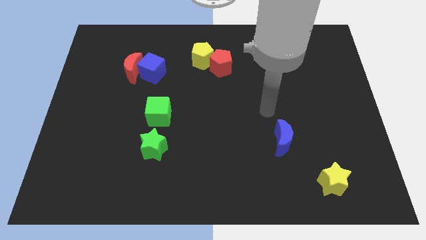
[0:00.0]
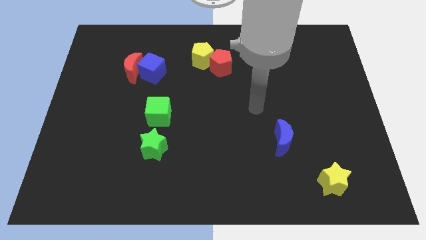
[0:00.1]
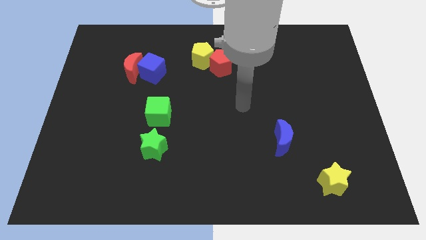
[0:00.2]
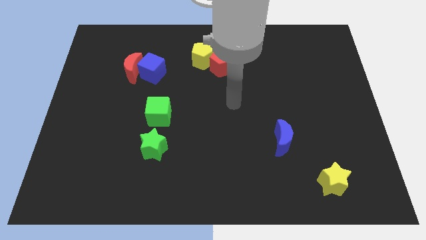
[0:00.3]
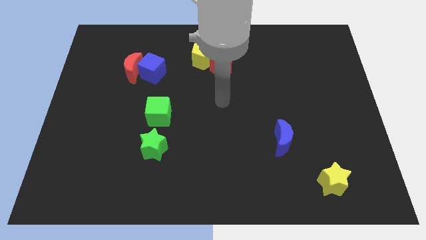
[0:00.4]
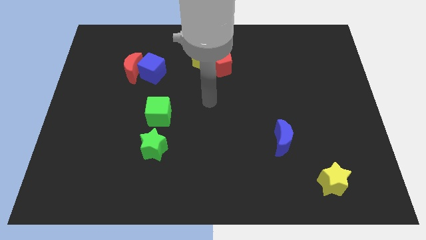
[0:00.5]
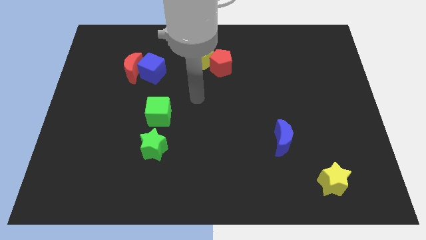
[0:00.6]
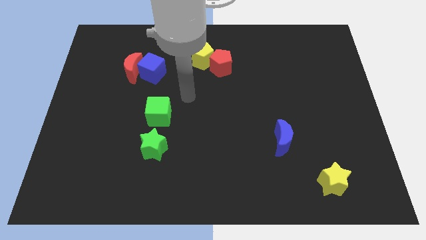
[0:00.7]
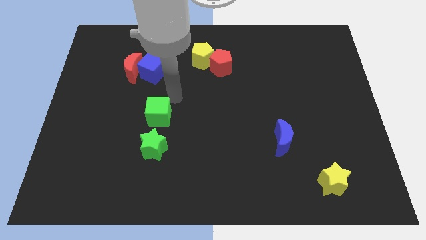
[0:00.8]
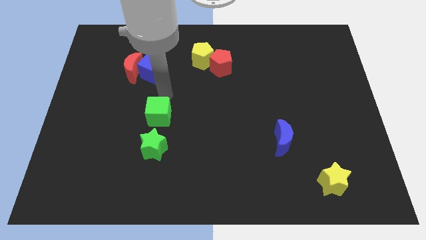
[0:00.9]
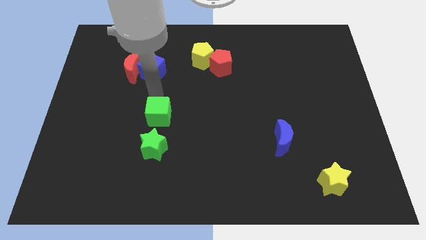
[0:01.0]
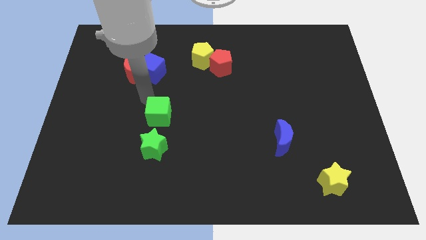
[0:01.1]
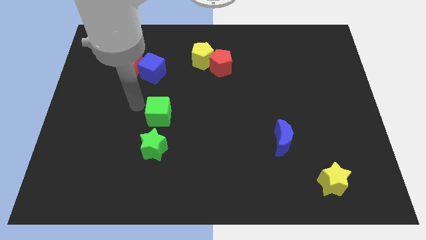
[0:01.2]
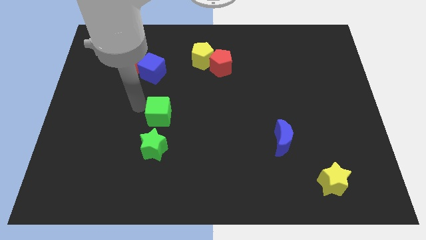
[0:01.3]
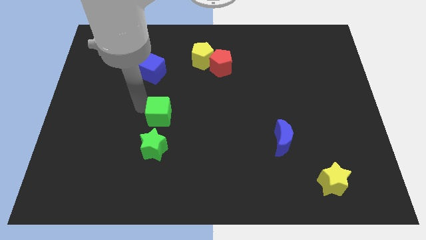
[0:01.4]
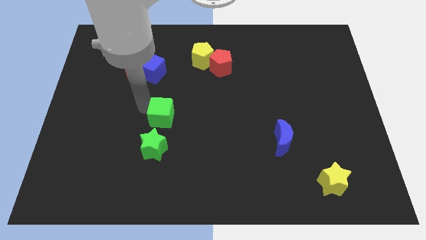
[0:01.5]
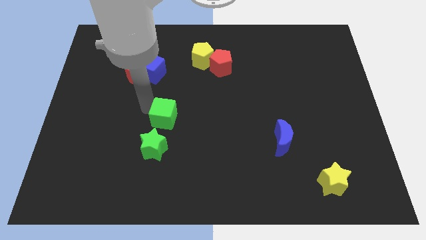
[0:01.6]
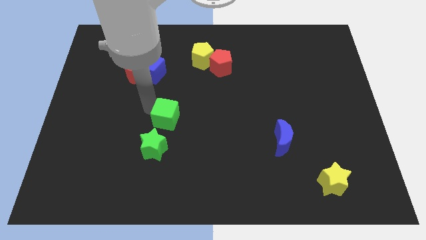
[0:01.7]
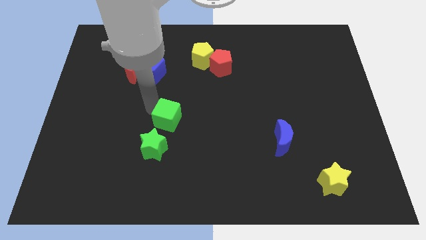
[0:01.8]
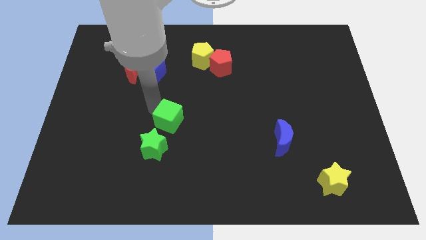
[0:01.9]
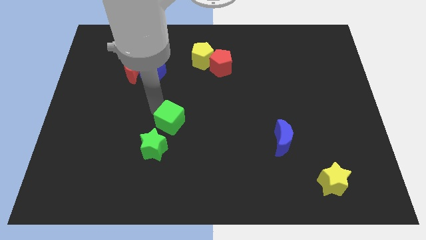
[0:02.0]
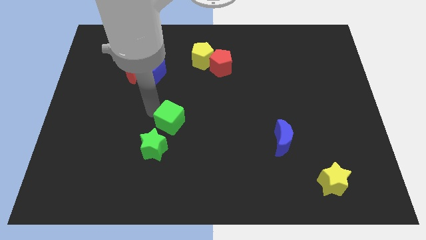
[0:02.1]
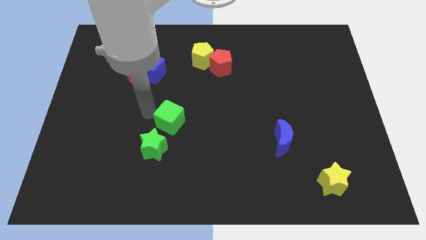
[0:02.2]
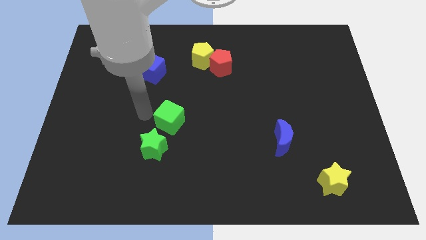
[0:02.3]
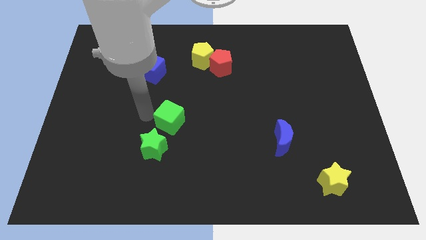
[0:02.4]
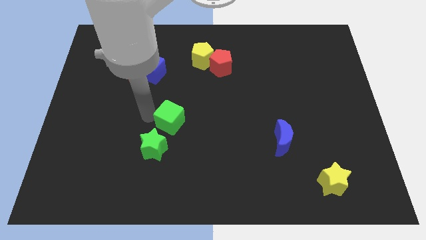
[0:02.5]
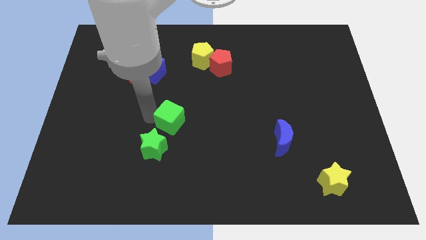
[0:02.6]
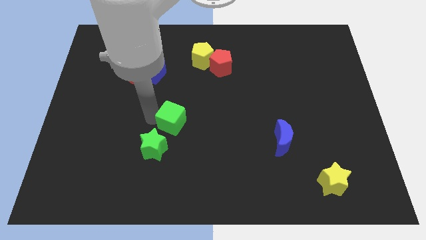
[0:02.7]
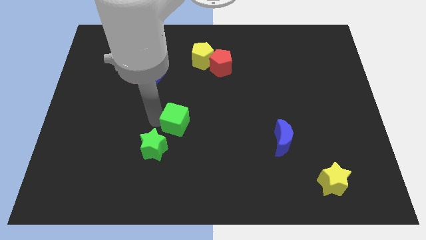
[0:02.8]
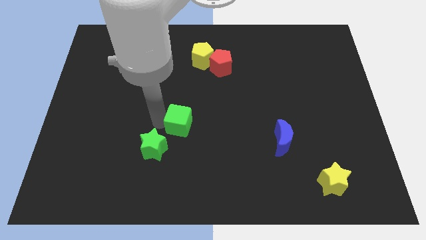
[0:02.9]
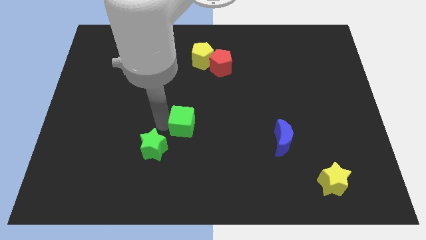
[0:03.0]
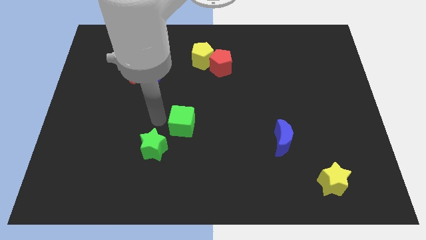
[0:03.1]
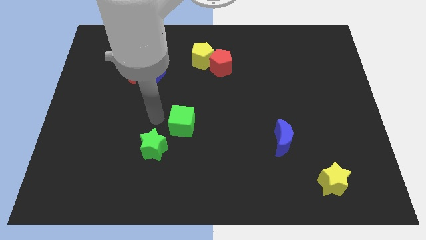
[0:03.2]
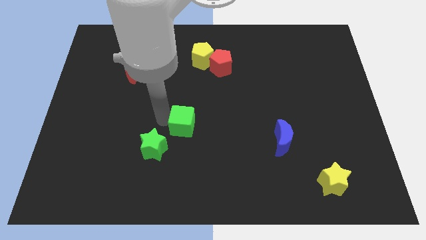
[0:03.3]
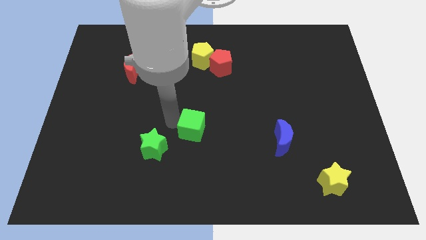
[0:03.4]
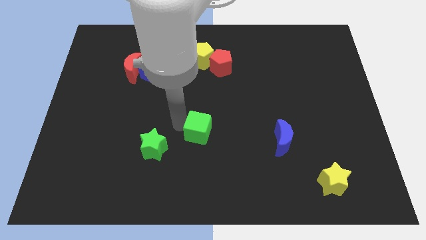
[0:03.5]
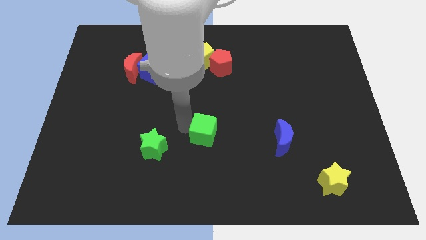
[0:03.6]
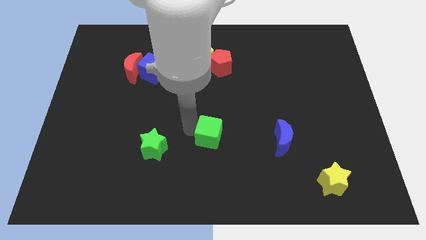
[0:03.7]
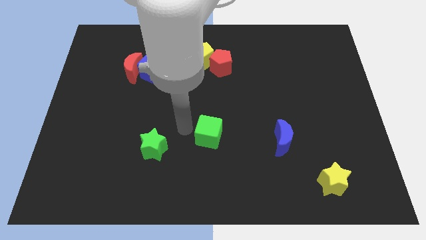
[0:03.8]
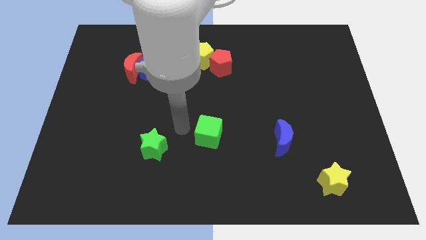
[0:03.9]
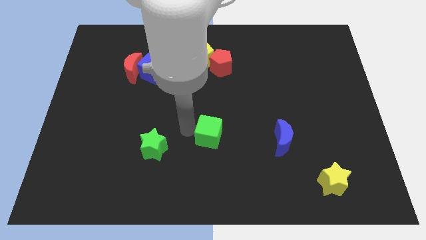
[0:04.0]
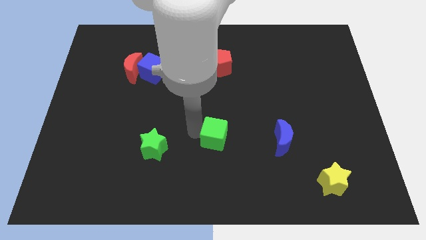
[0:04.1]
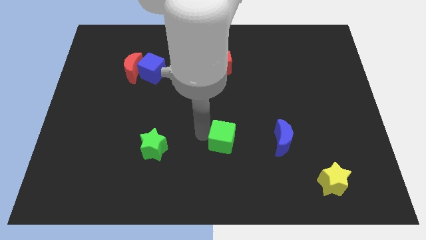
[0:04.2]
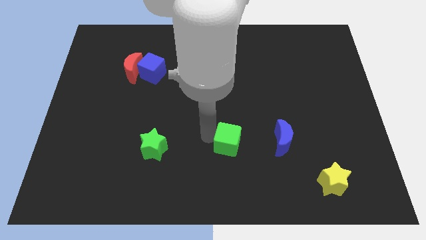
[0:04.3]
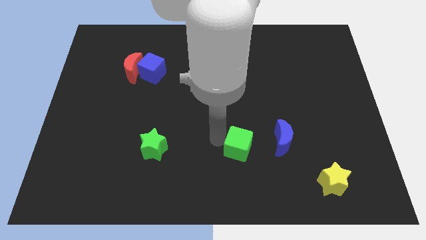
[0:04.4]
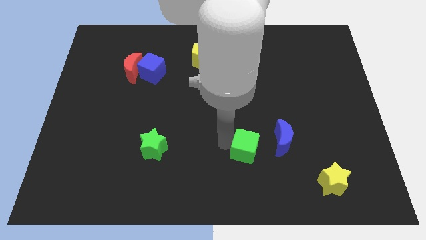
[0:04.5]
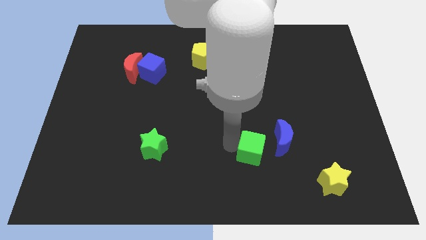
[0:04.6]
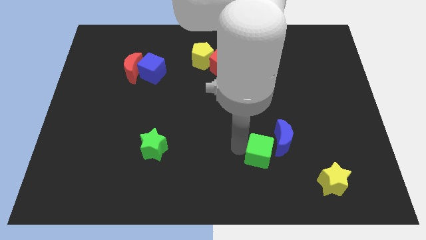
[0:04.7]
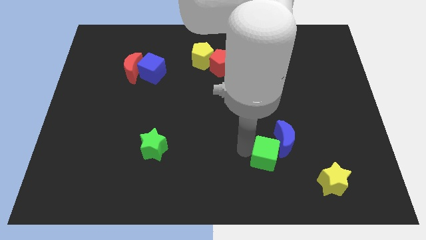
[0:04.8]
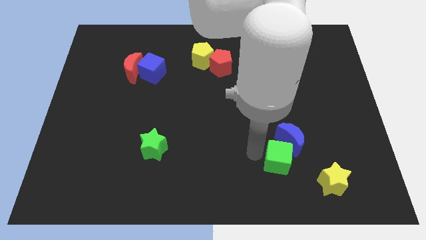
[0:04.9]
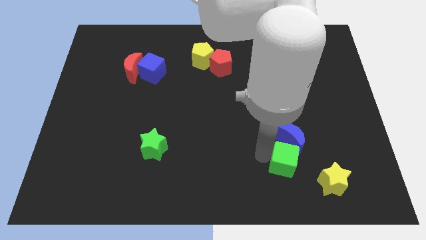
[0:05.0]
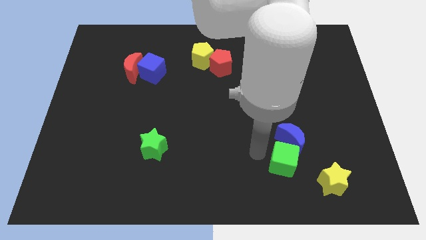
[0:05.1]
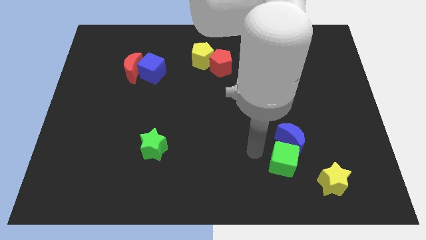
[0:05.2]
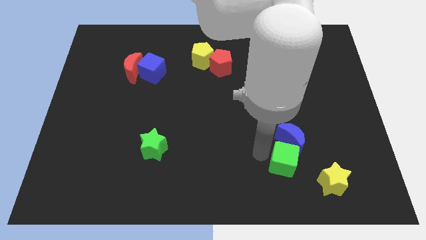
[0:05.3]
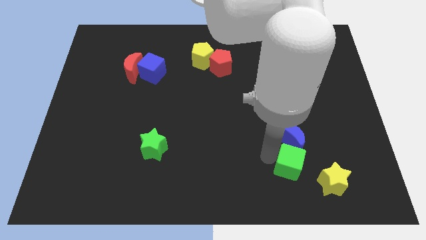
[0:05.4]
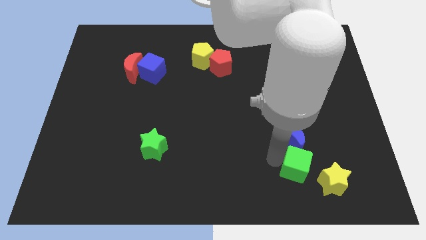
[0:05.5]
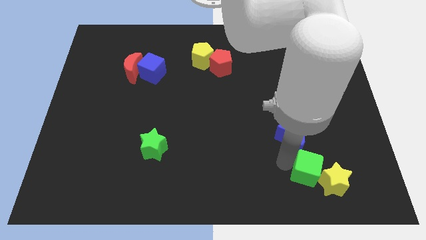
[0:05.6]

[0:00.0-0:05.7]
push the green cube to the yellow star

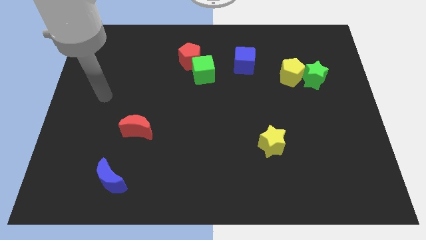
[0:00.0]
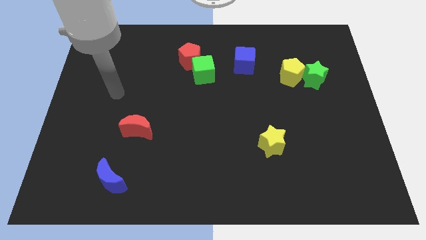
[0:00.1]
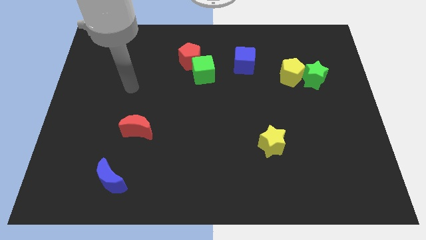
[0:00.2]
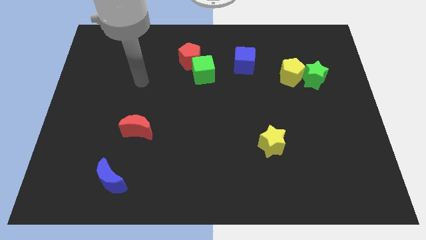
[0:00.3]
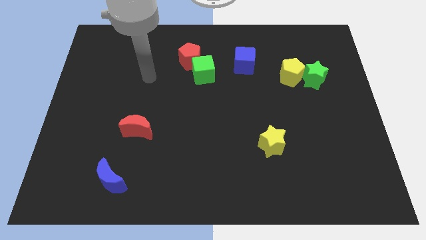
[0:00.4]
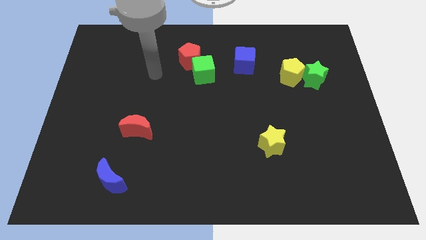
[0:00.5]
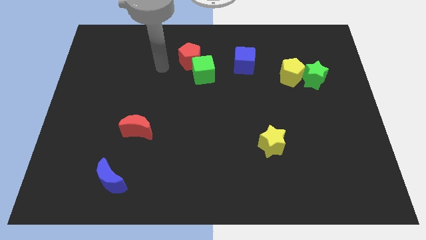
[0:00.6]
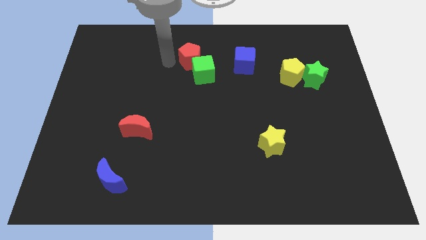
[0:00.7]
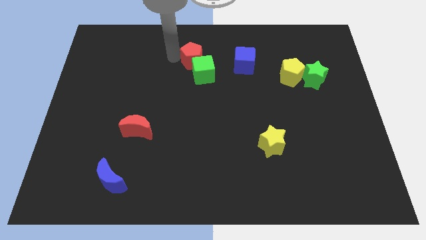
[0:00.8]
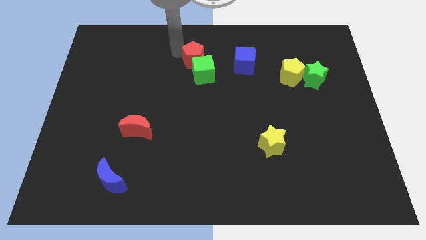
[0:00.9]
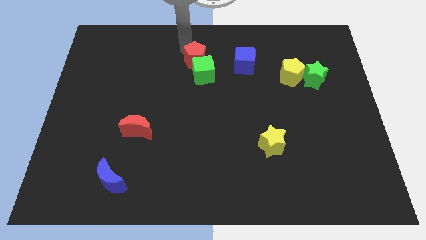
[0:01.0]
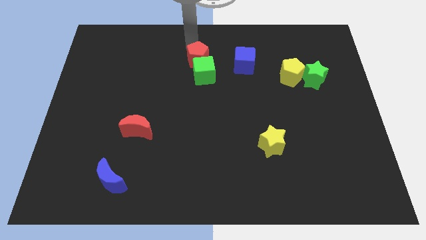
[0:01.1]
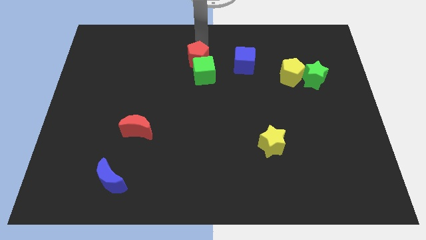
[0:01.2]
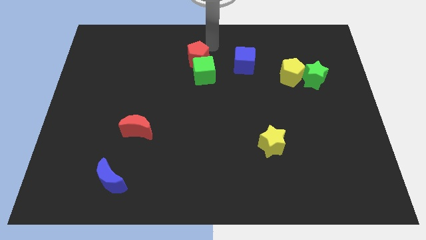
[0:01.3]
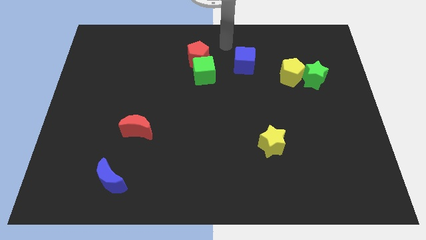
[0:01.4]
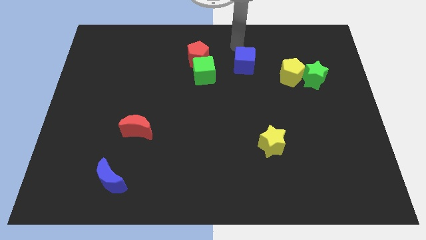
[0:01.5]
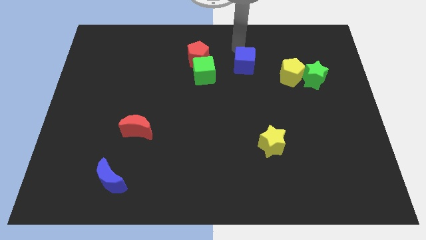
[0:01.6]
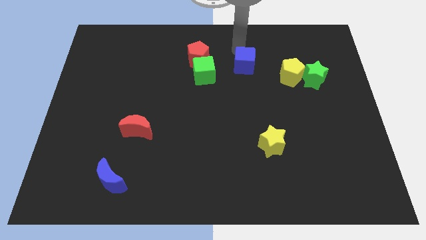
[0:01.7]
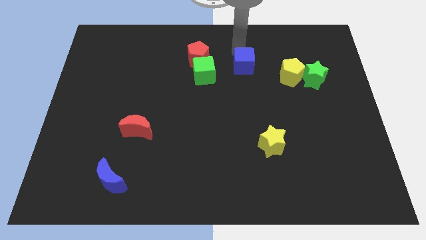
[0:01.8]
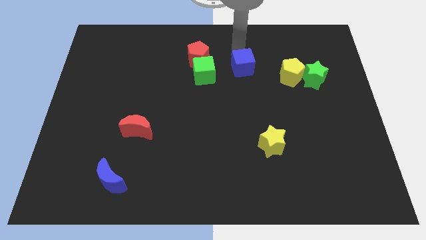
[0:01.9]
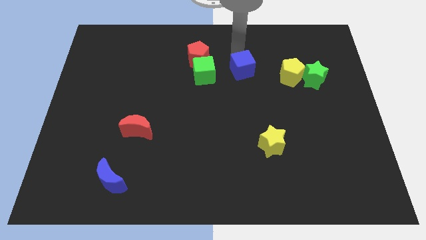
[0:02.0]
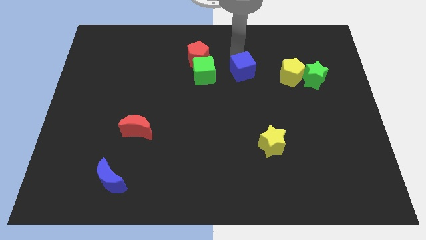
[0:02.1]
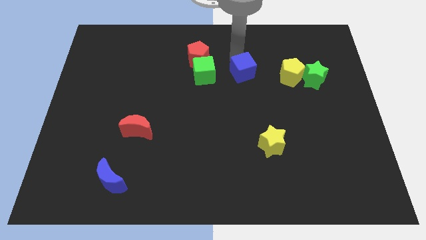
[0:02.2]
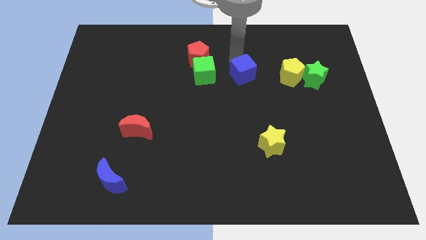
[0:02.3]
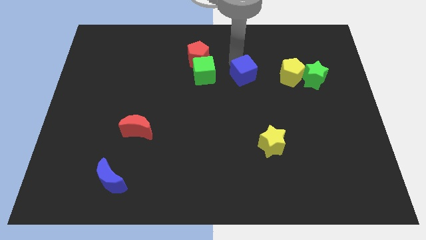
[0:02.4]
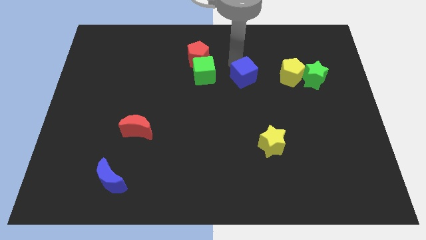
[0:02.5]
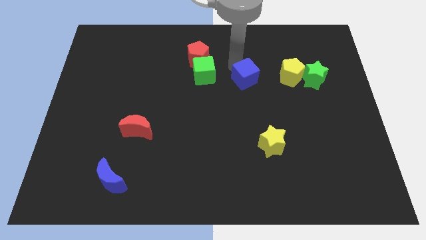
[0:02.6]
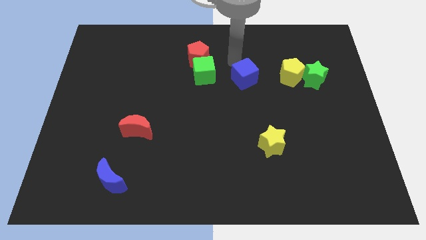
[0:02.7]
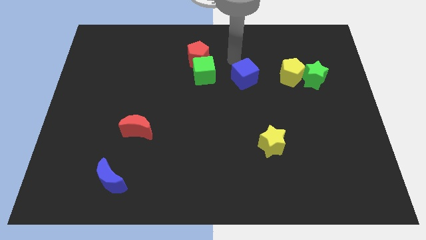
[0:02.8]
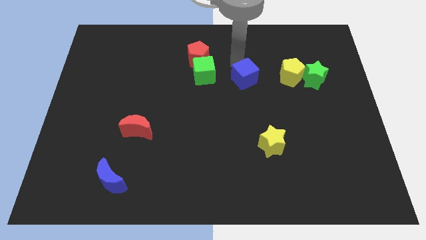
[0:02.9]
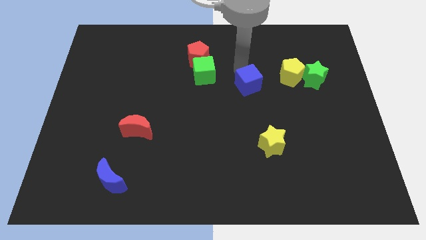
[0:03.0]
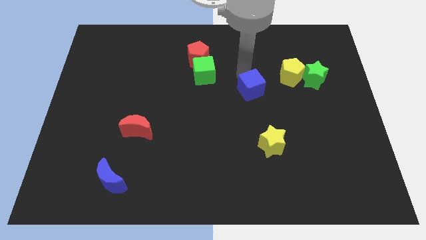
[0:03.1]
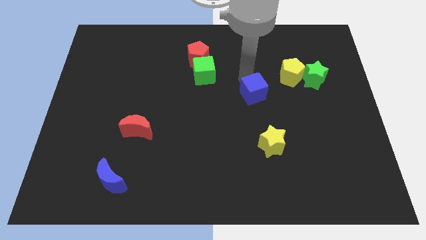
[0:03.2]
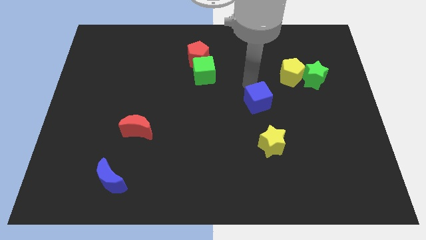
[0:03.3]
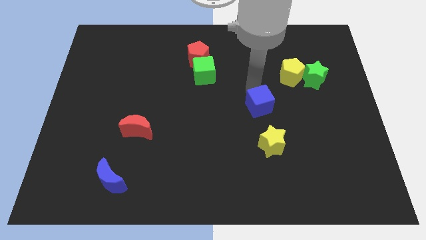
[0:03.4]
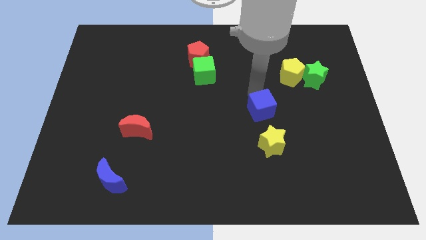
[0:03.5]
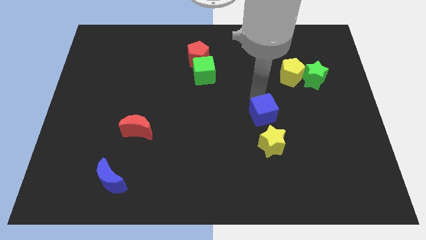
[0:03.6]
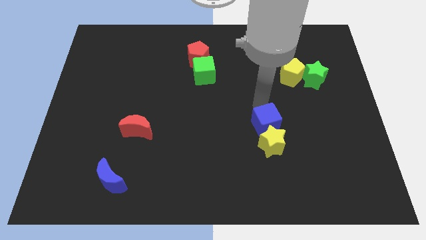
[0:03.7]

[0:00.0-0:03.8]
put the blue cube next to the yellow star
